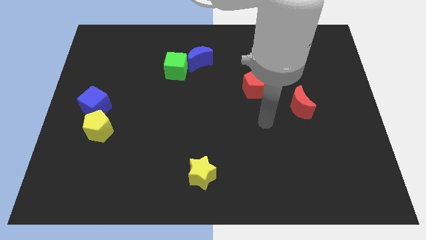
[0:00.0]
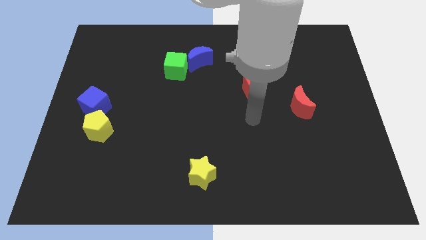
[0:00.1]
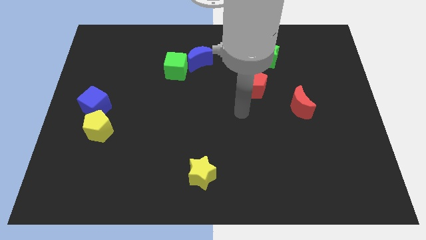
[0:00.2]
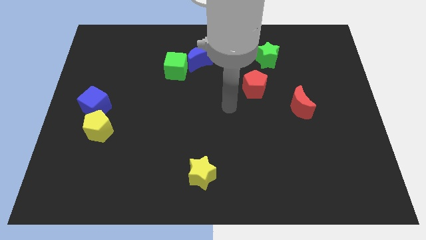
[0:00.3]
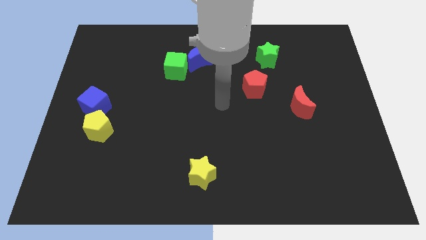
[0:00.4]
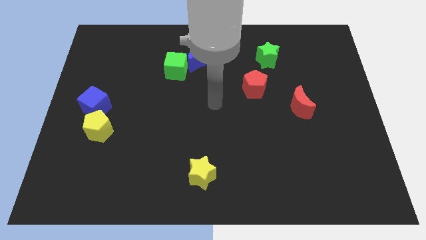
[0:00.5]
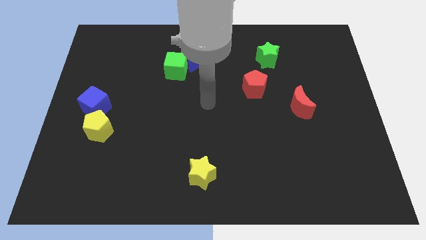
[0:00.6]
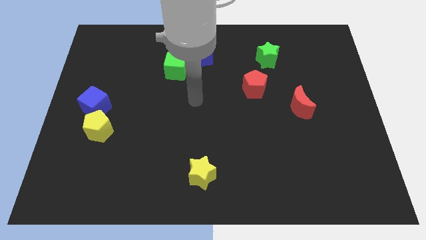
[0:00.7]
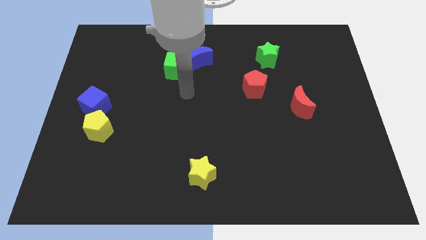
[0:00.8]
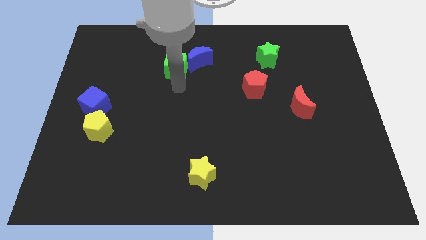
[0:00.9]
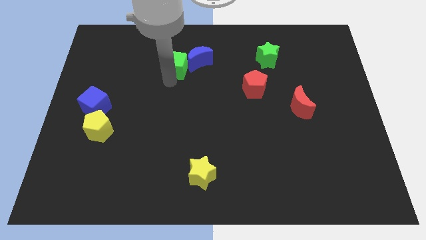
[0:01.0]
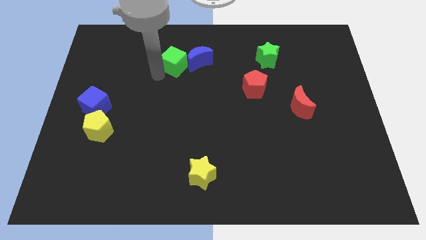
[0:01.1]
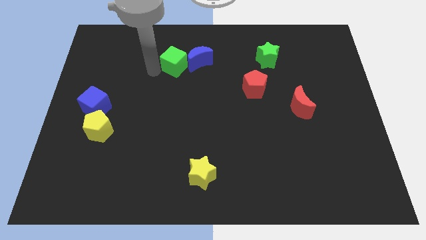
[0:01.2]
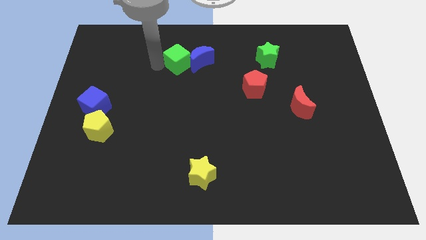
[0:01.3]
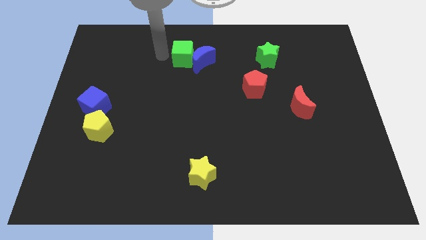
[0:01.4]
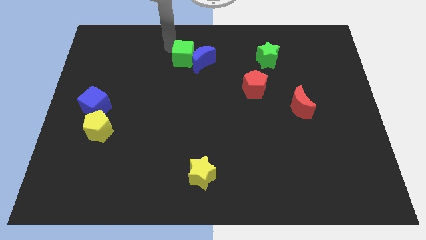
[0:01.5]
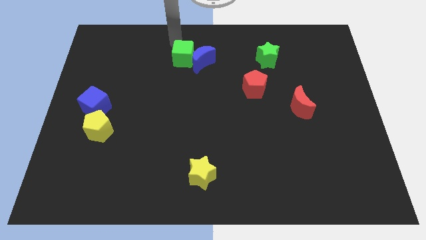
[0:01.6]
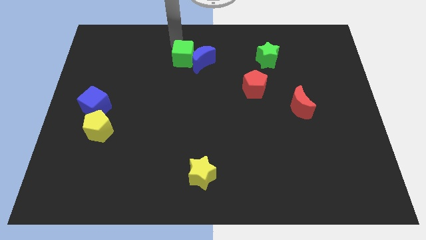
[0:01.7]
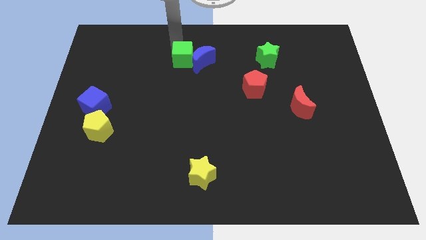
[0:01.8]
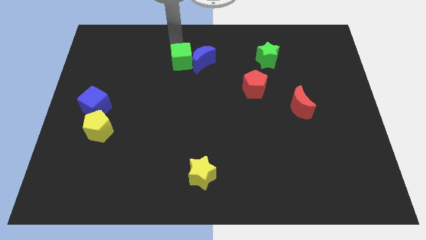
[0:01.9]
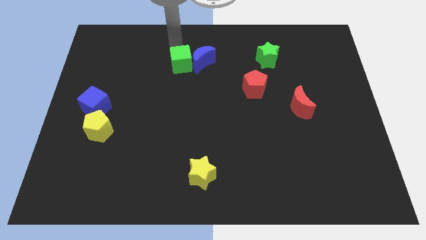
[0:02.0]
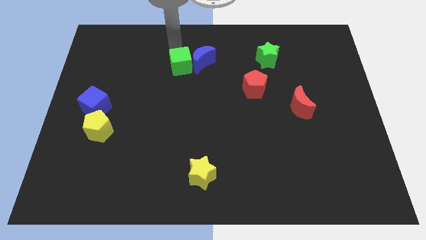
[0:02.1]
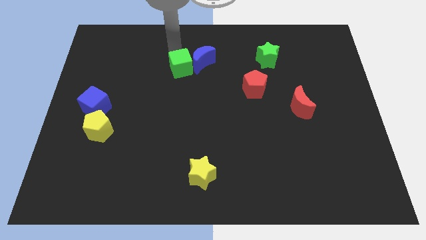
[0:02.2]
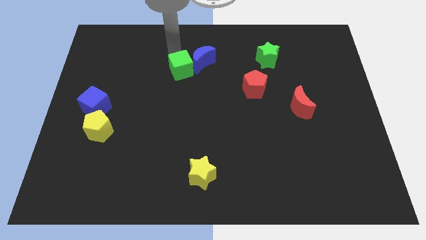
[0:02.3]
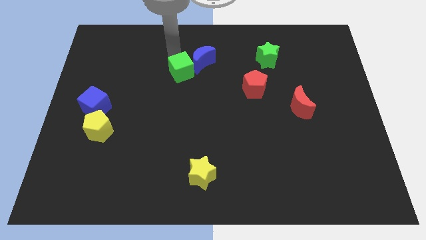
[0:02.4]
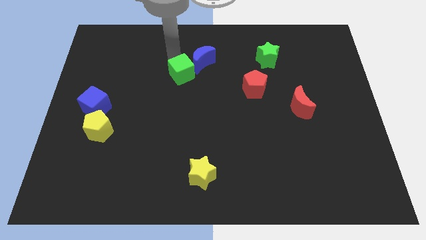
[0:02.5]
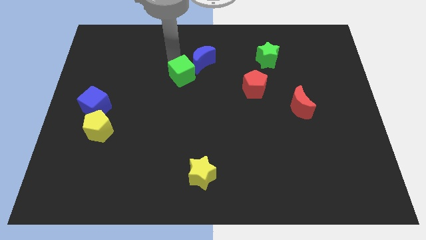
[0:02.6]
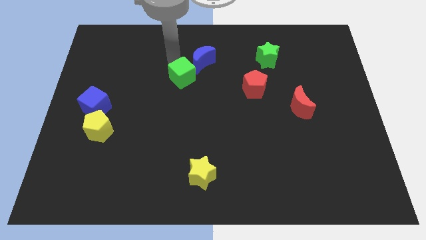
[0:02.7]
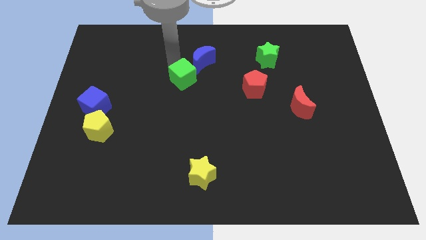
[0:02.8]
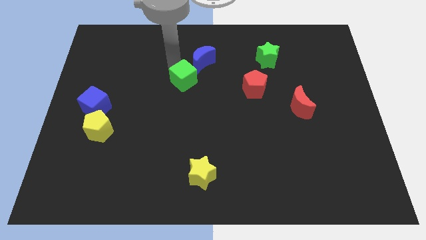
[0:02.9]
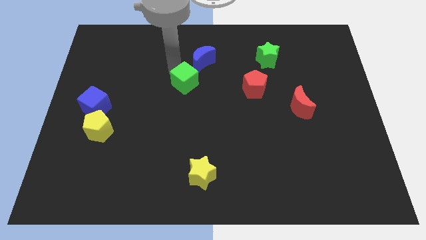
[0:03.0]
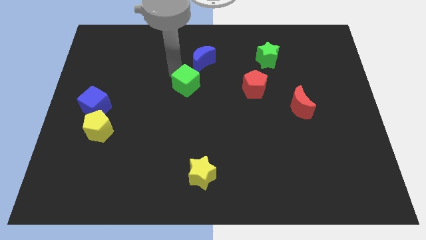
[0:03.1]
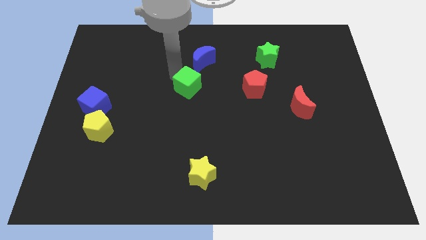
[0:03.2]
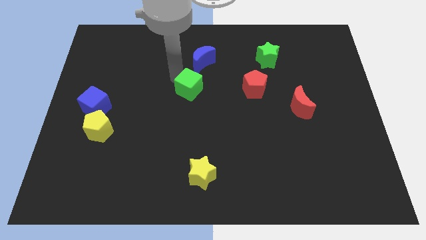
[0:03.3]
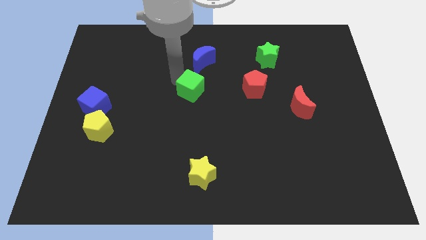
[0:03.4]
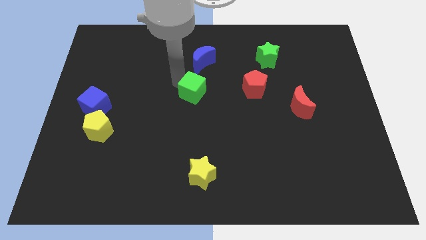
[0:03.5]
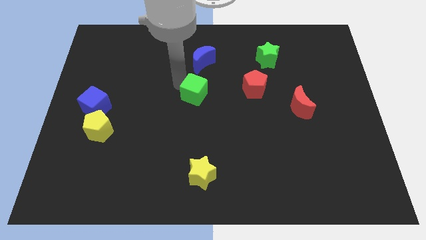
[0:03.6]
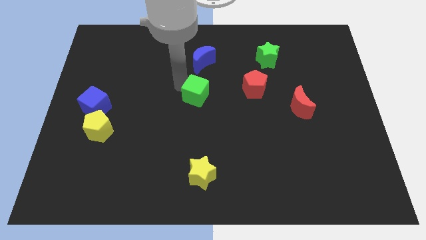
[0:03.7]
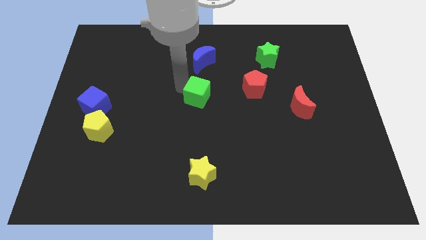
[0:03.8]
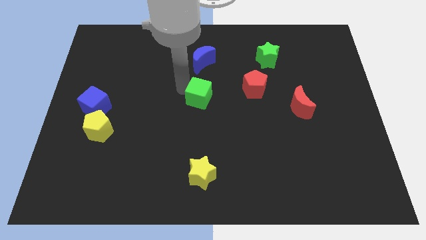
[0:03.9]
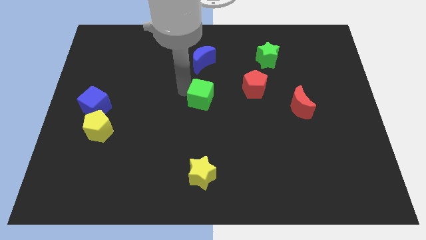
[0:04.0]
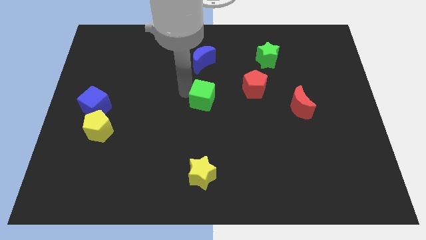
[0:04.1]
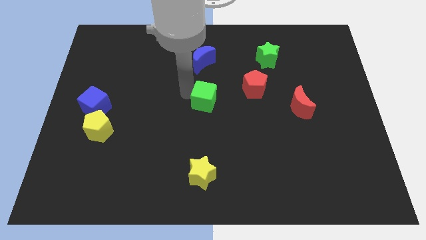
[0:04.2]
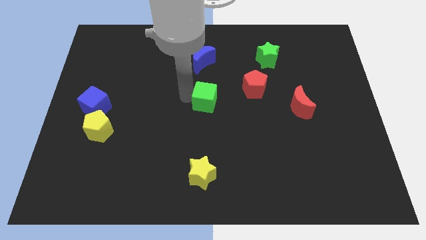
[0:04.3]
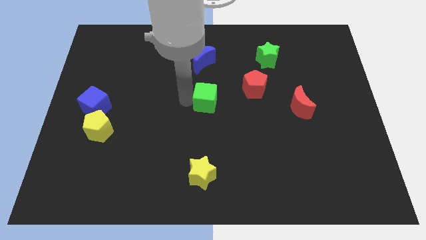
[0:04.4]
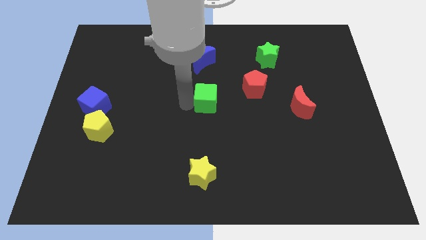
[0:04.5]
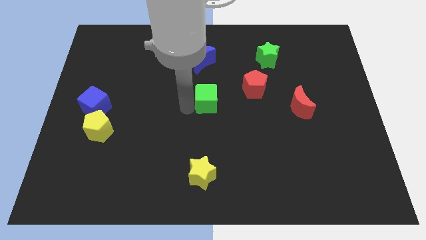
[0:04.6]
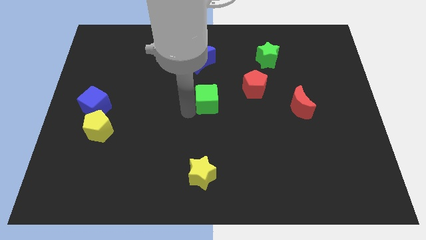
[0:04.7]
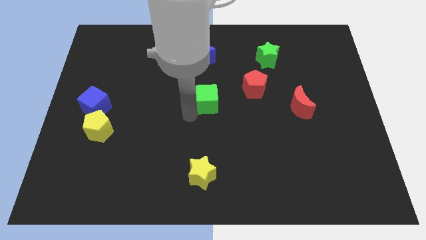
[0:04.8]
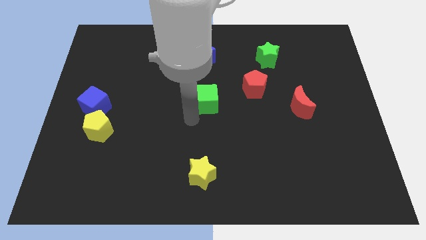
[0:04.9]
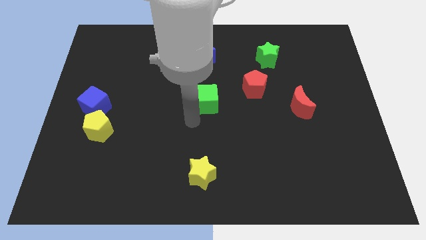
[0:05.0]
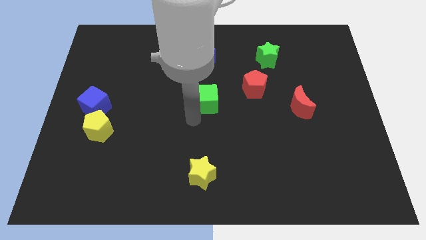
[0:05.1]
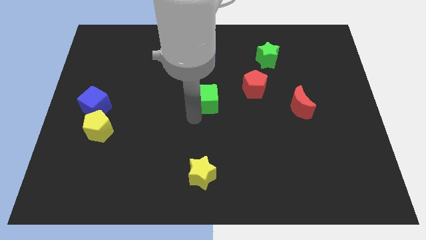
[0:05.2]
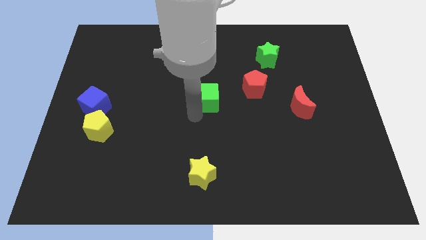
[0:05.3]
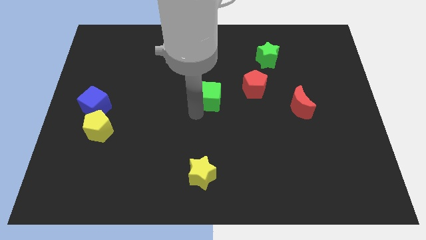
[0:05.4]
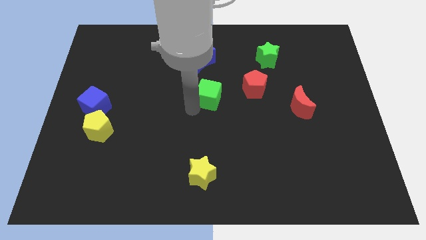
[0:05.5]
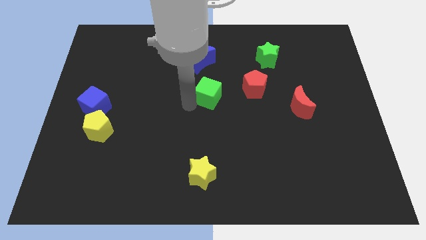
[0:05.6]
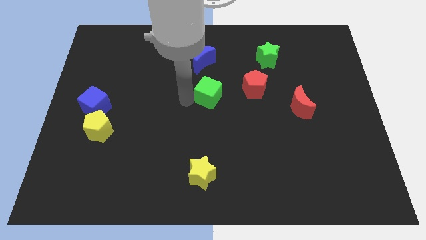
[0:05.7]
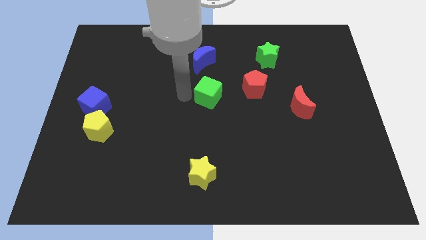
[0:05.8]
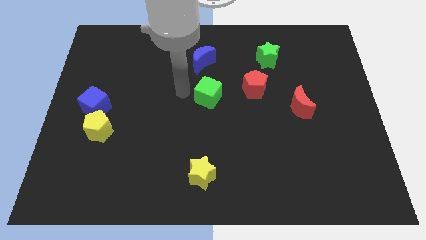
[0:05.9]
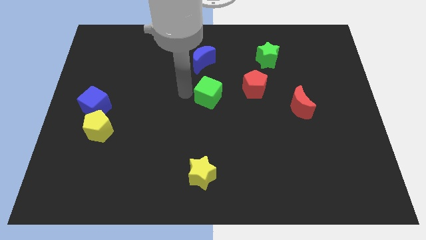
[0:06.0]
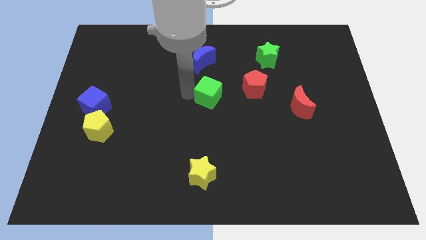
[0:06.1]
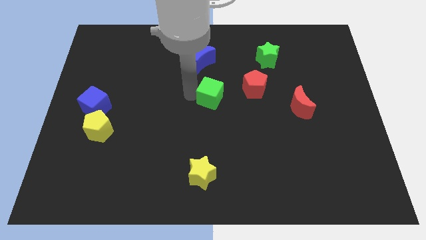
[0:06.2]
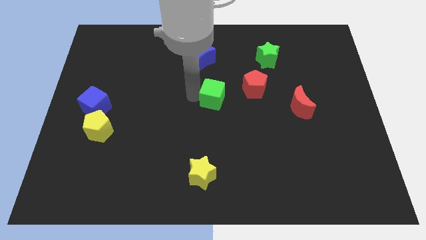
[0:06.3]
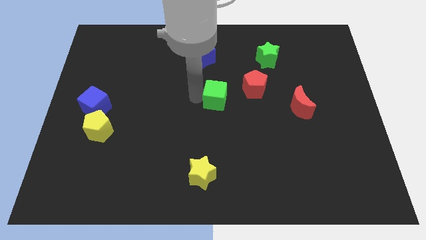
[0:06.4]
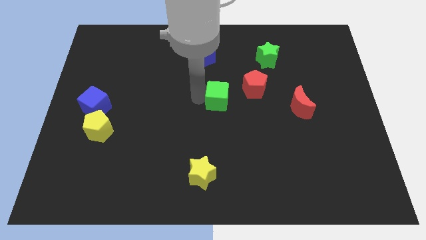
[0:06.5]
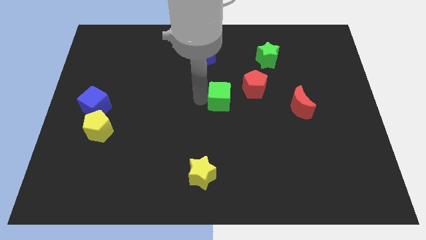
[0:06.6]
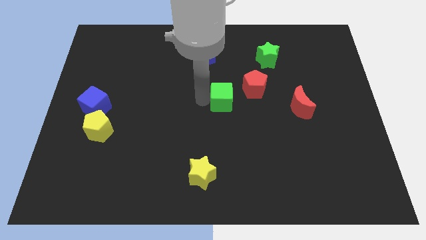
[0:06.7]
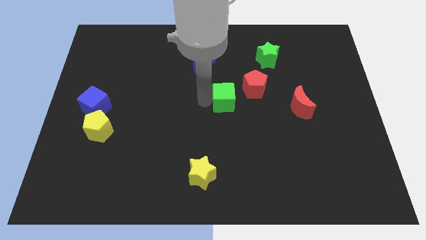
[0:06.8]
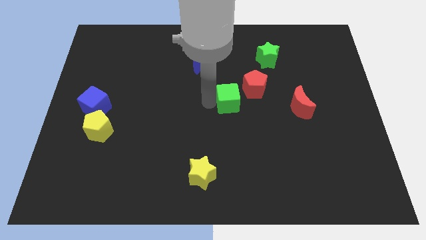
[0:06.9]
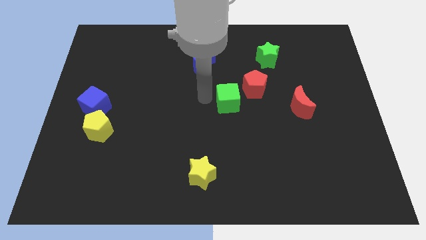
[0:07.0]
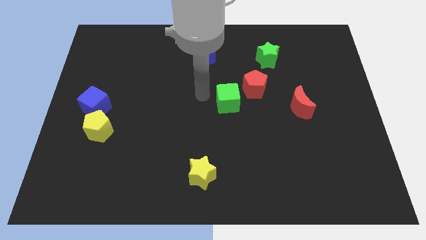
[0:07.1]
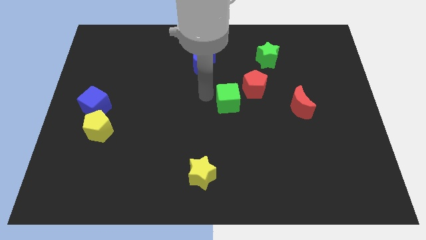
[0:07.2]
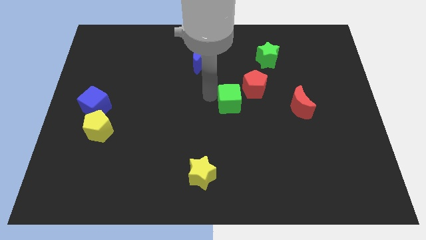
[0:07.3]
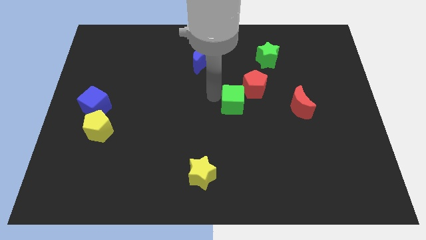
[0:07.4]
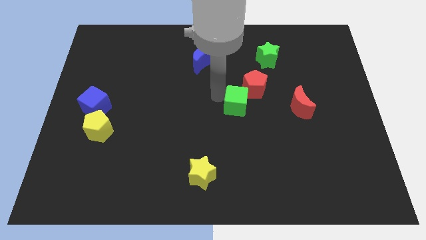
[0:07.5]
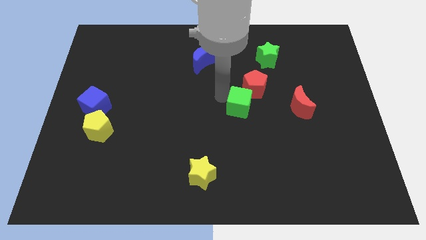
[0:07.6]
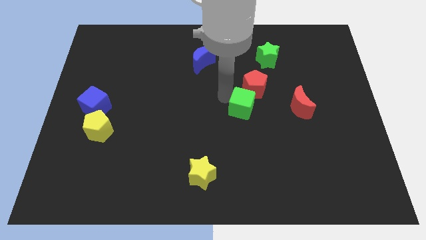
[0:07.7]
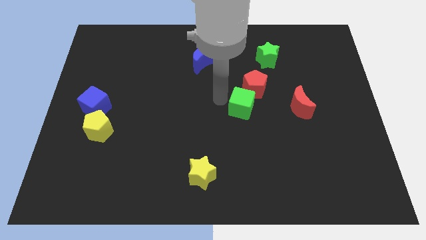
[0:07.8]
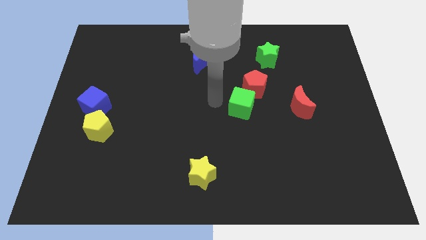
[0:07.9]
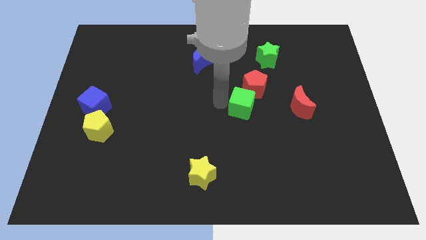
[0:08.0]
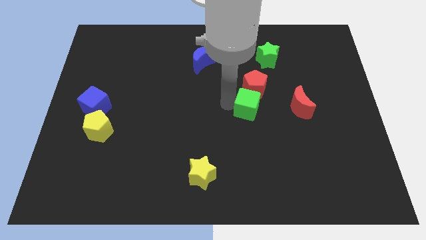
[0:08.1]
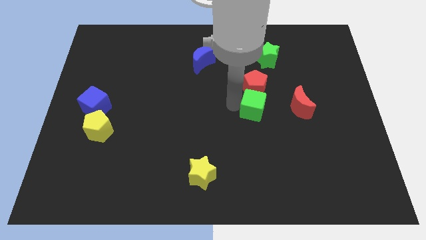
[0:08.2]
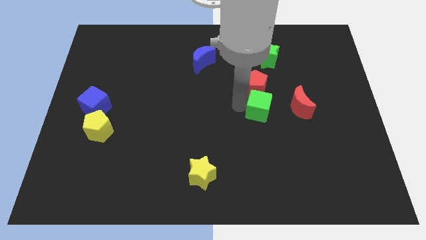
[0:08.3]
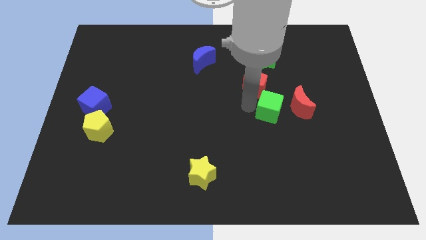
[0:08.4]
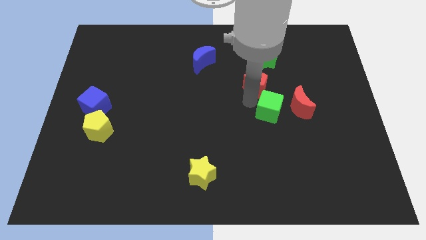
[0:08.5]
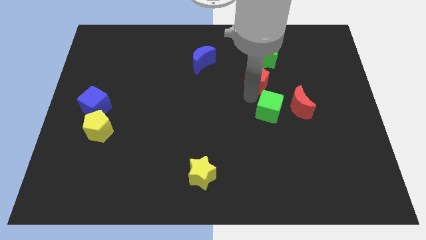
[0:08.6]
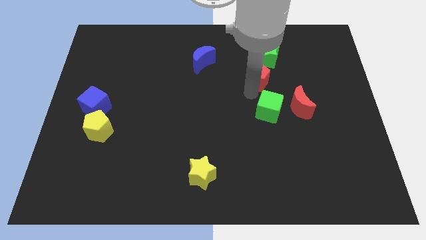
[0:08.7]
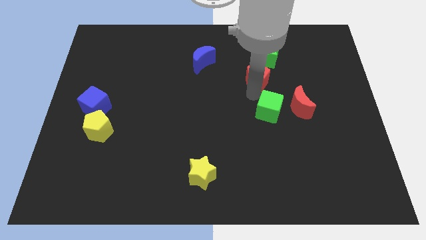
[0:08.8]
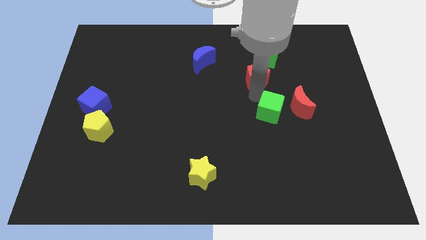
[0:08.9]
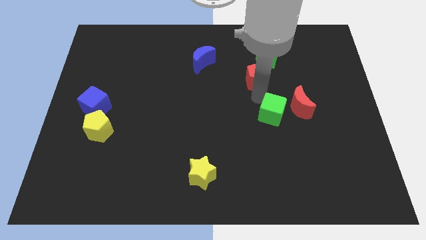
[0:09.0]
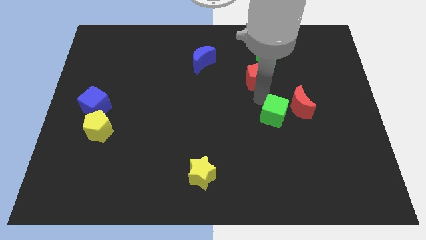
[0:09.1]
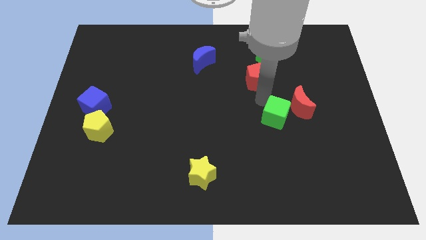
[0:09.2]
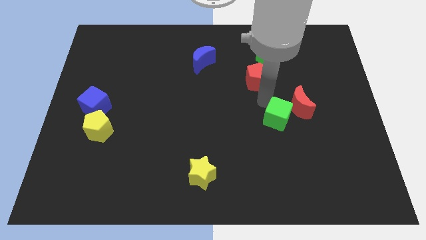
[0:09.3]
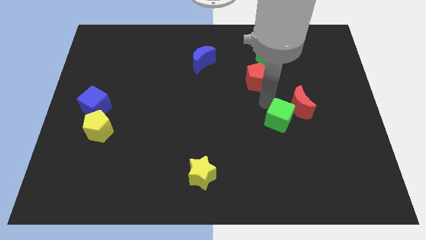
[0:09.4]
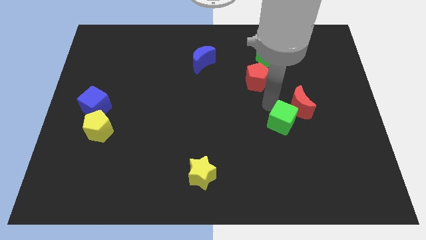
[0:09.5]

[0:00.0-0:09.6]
push the green cube below the red moon
